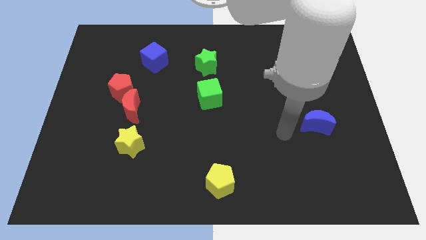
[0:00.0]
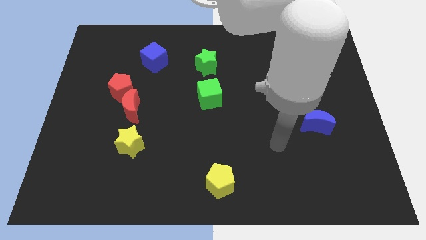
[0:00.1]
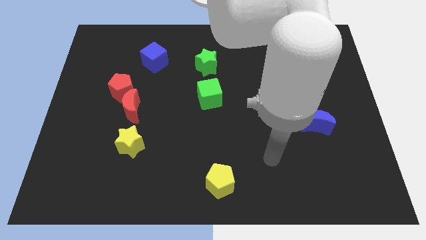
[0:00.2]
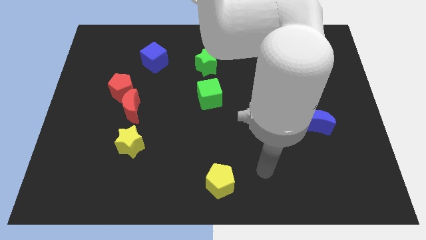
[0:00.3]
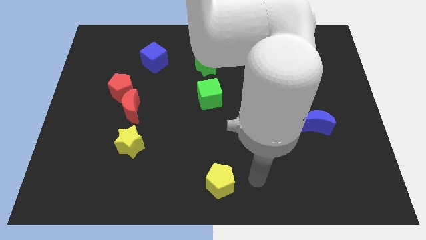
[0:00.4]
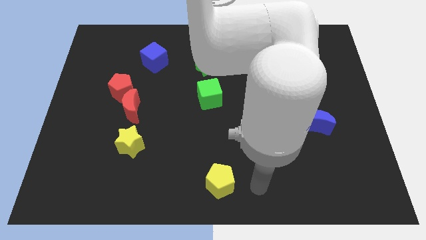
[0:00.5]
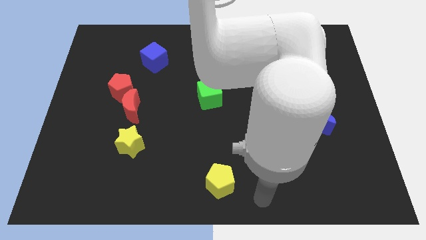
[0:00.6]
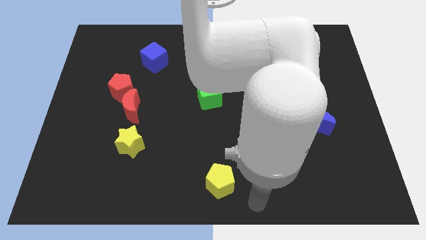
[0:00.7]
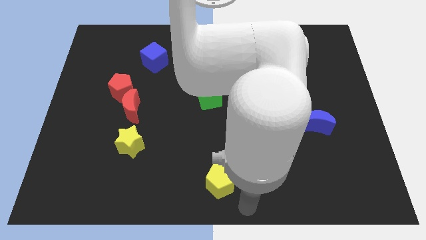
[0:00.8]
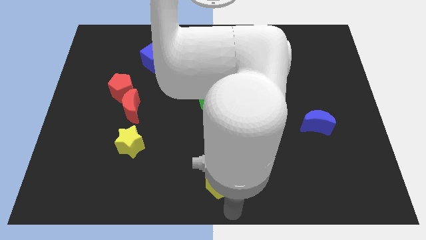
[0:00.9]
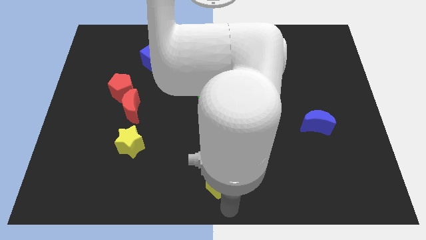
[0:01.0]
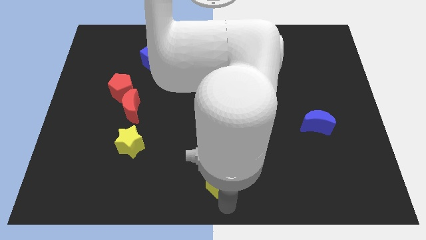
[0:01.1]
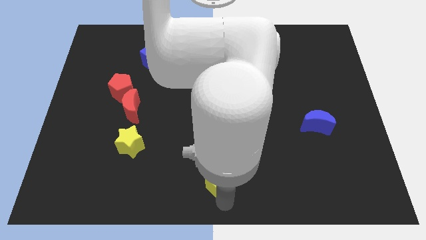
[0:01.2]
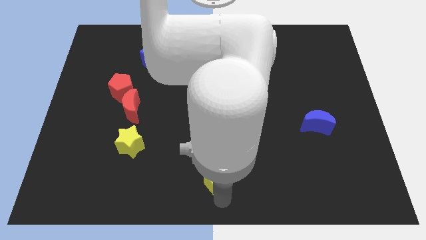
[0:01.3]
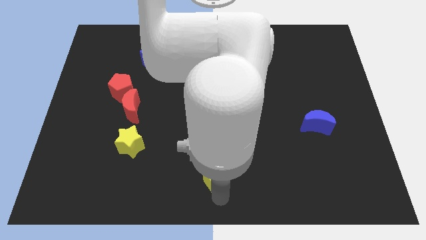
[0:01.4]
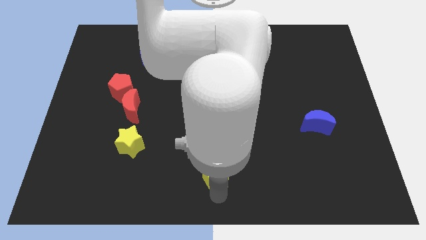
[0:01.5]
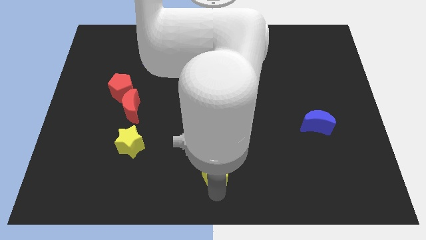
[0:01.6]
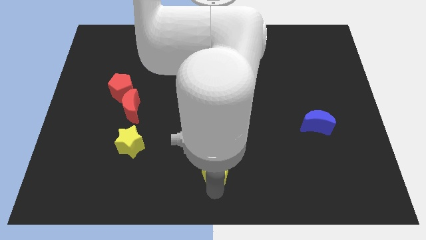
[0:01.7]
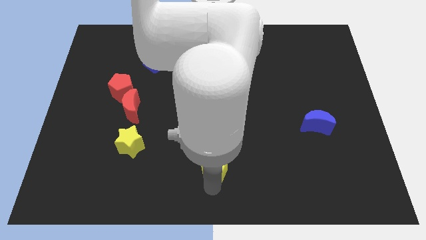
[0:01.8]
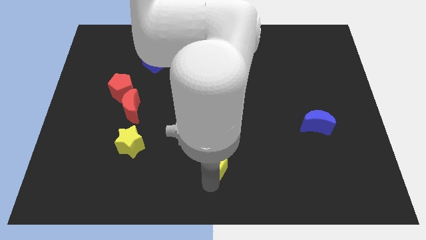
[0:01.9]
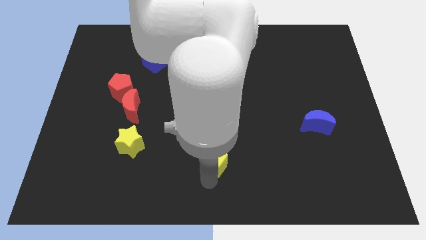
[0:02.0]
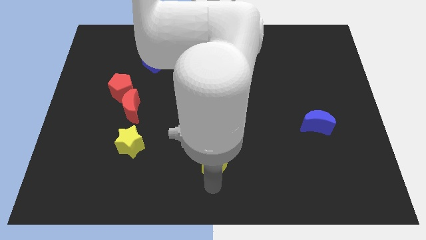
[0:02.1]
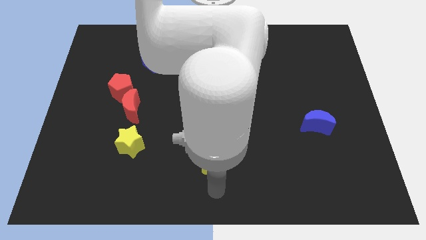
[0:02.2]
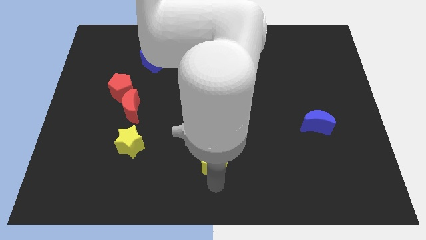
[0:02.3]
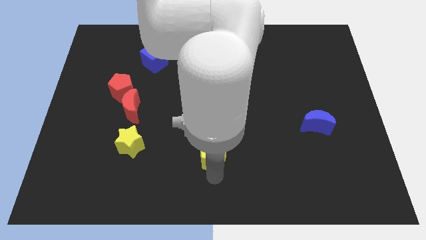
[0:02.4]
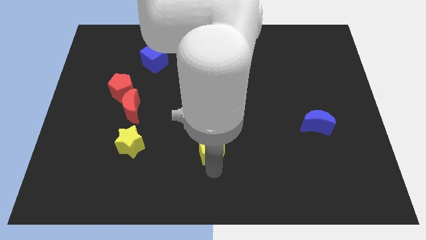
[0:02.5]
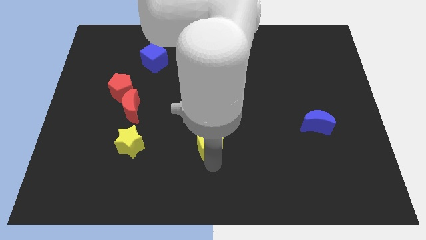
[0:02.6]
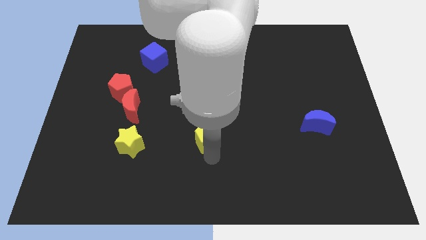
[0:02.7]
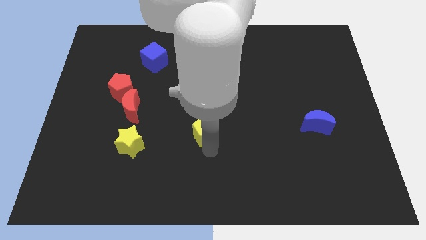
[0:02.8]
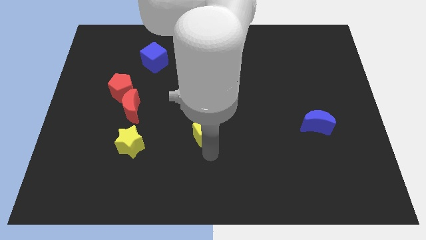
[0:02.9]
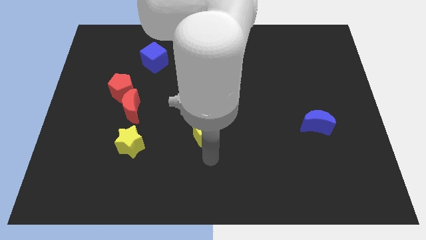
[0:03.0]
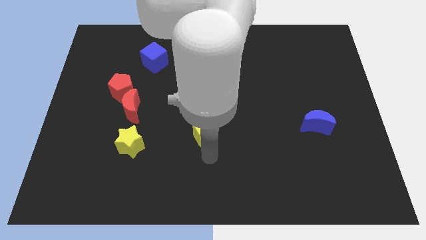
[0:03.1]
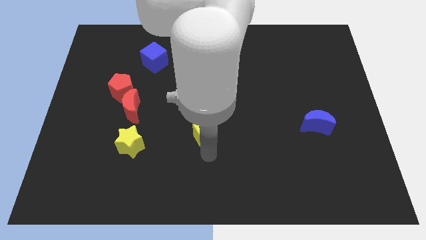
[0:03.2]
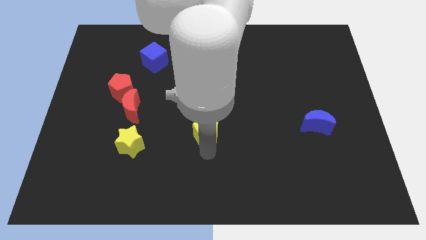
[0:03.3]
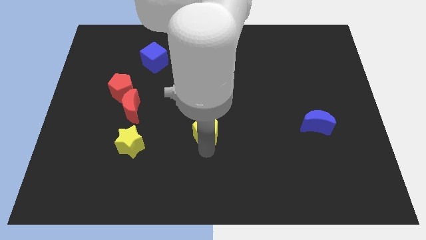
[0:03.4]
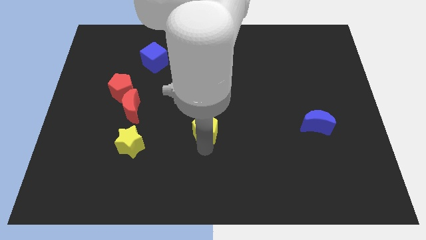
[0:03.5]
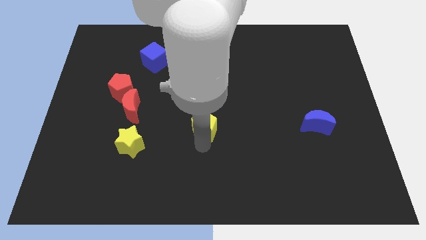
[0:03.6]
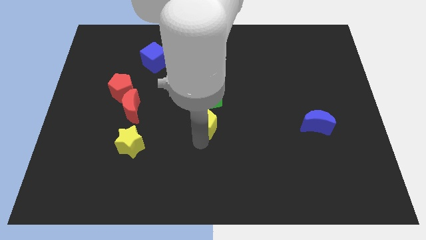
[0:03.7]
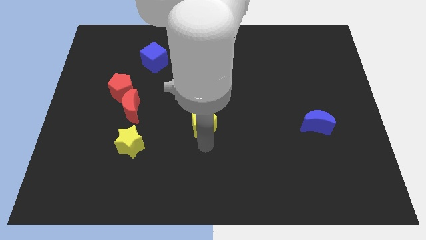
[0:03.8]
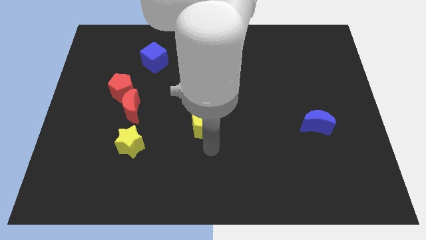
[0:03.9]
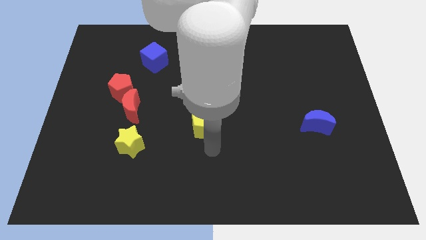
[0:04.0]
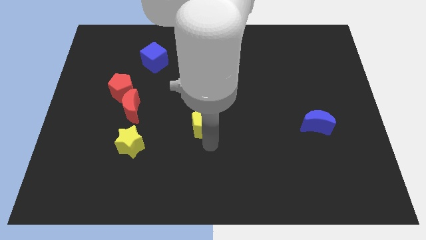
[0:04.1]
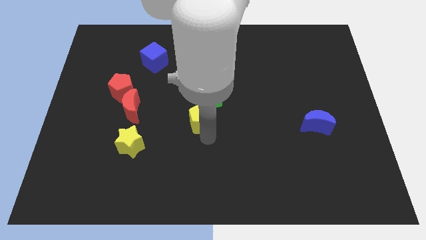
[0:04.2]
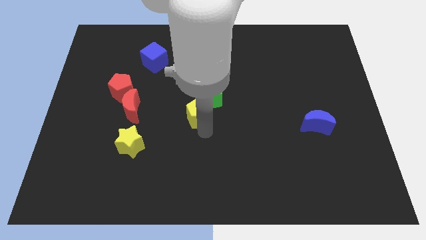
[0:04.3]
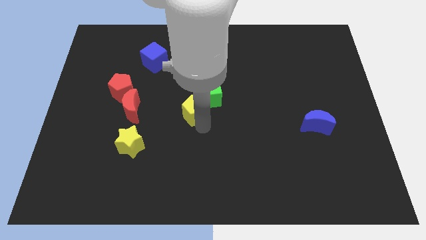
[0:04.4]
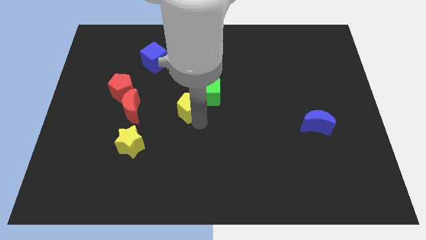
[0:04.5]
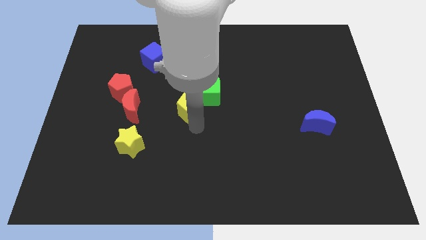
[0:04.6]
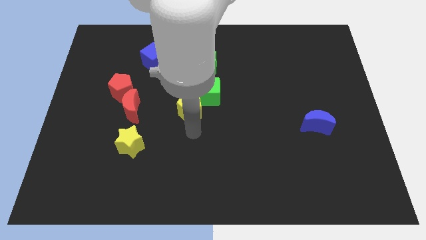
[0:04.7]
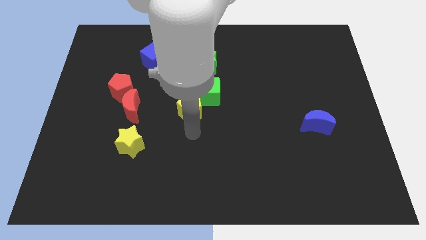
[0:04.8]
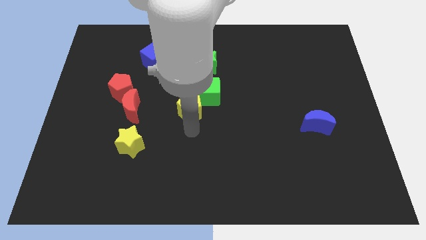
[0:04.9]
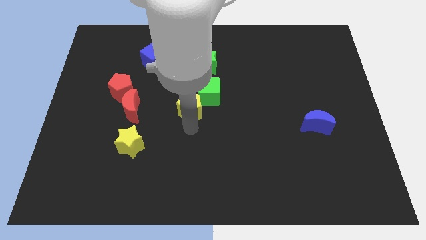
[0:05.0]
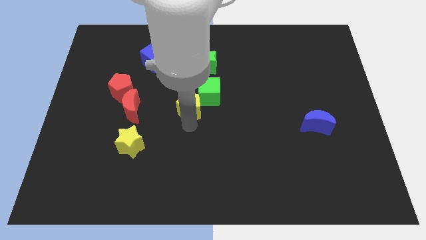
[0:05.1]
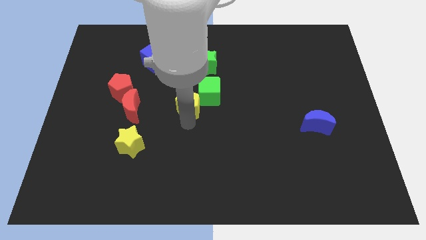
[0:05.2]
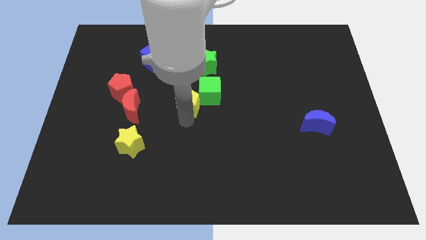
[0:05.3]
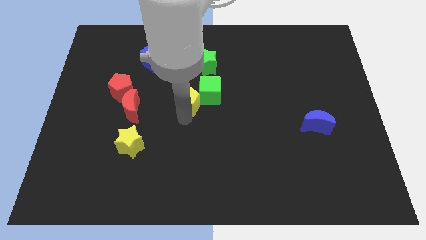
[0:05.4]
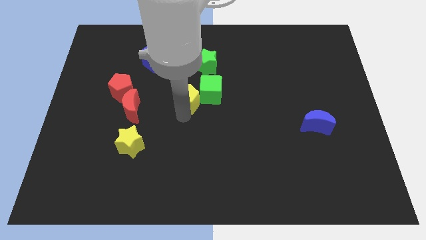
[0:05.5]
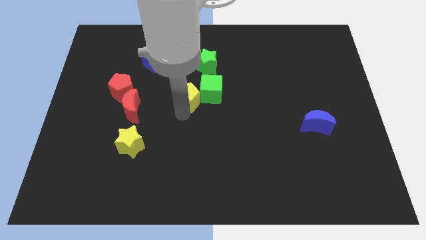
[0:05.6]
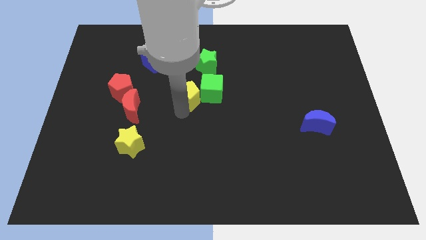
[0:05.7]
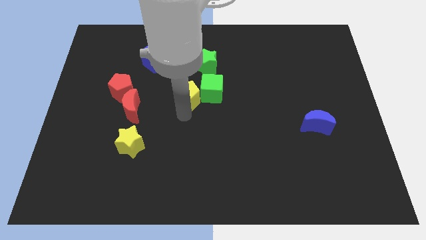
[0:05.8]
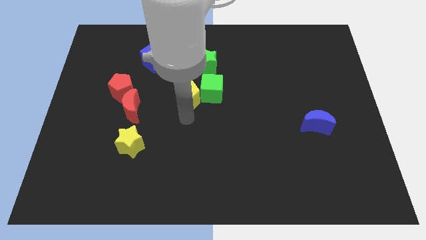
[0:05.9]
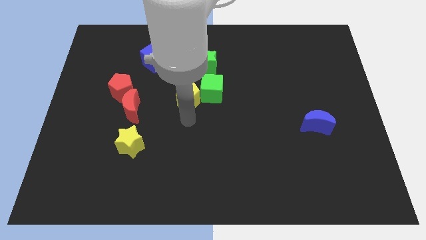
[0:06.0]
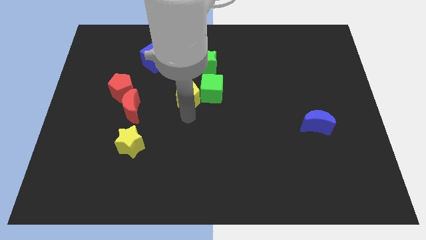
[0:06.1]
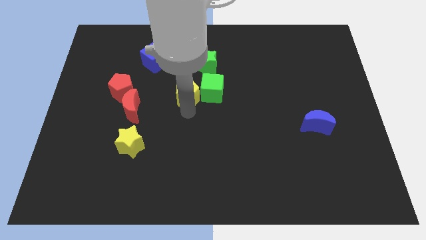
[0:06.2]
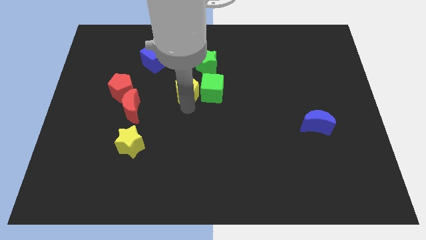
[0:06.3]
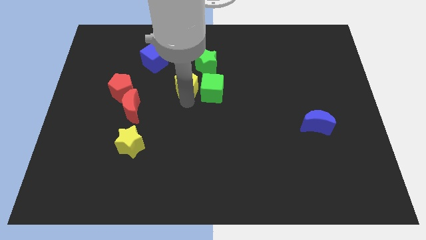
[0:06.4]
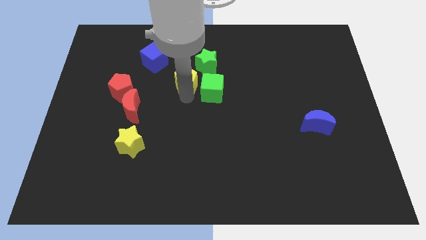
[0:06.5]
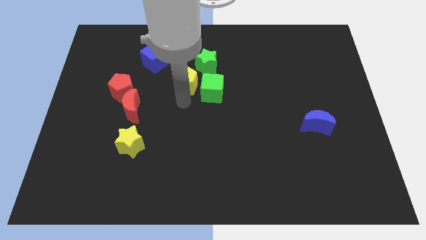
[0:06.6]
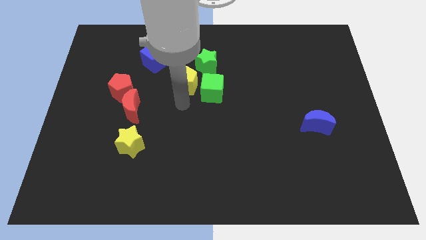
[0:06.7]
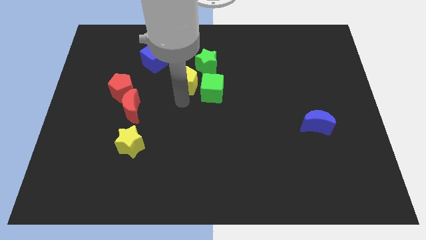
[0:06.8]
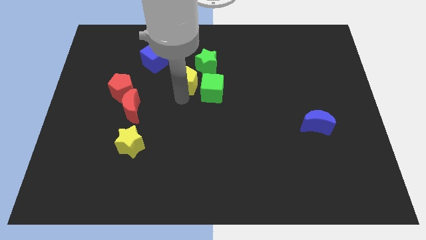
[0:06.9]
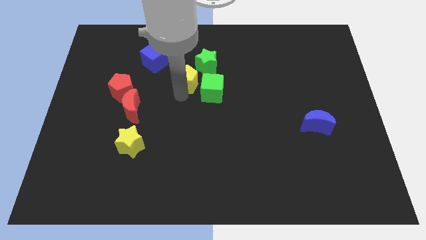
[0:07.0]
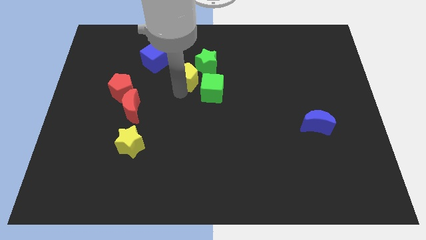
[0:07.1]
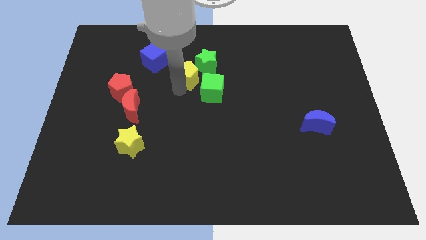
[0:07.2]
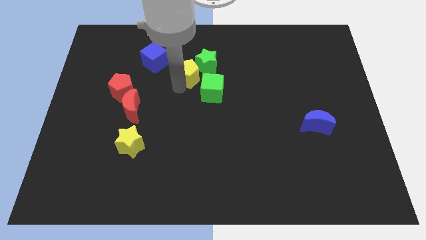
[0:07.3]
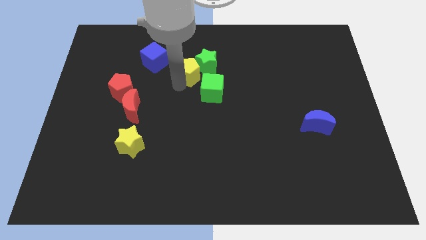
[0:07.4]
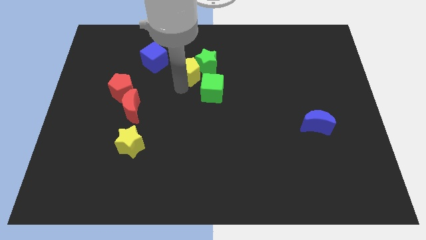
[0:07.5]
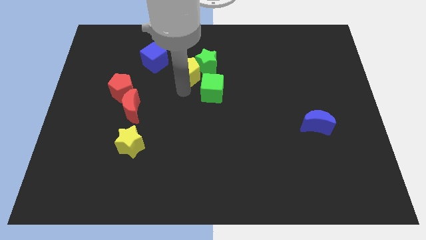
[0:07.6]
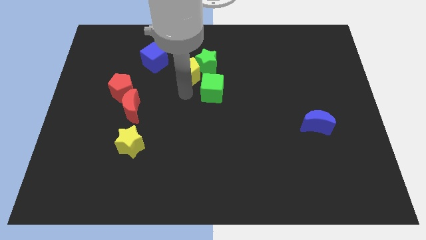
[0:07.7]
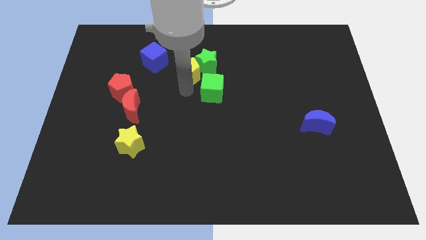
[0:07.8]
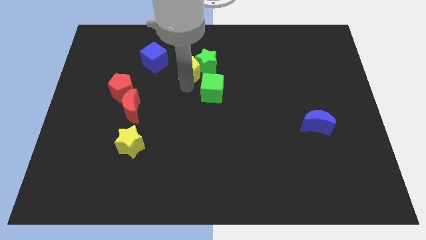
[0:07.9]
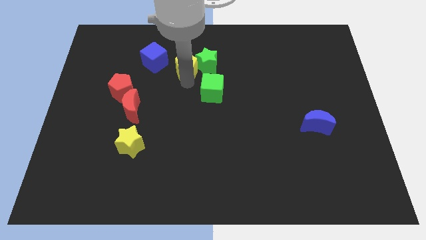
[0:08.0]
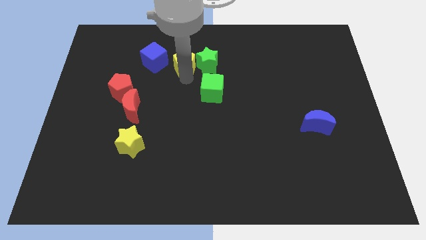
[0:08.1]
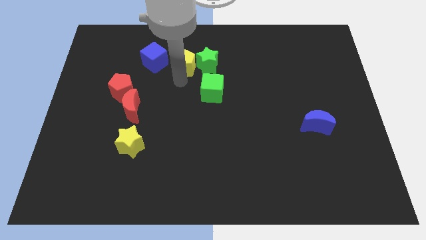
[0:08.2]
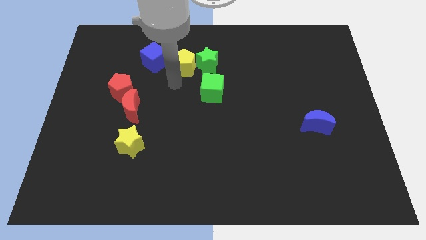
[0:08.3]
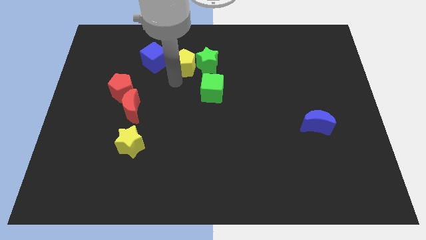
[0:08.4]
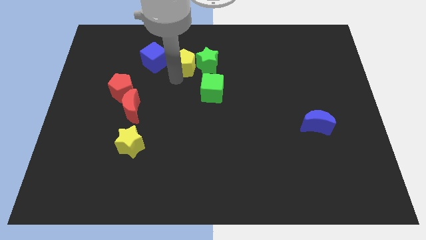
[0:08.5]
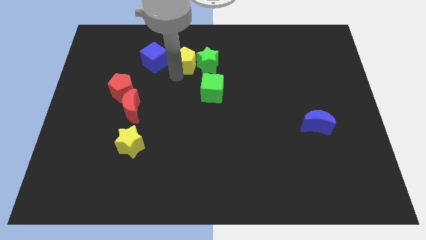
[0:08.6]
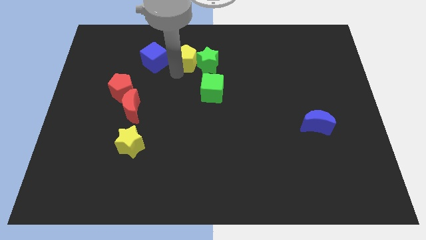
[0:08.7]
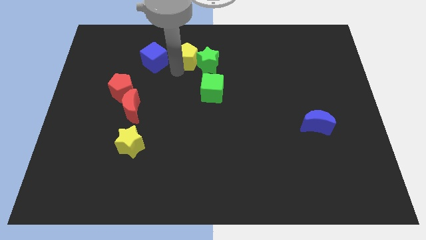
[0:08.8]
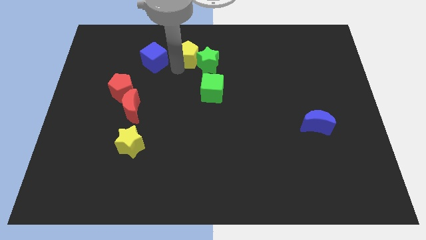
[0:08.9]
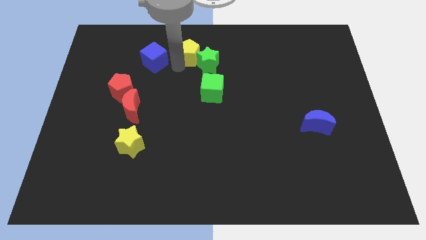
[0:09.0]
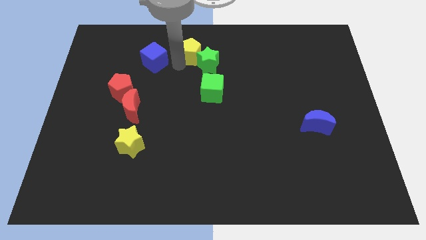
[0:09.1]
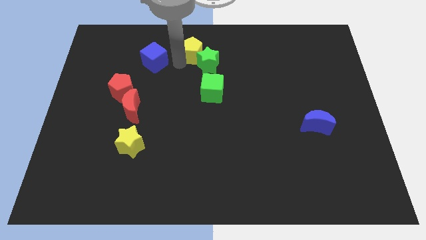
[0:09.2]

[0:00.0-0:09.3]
put the yellow pentagon to the top
